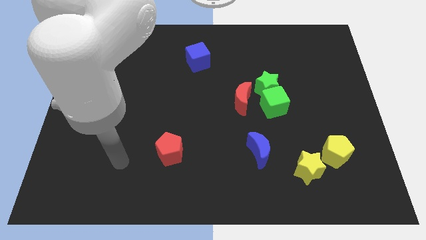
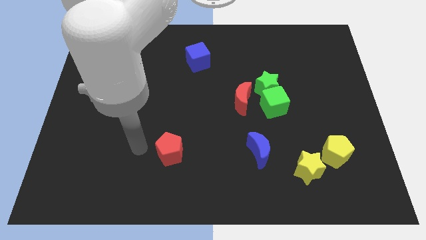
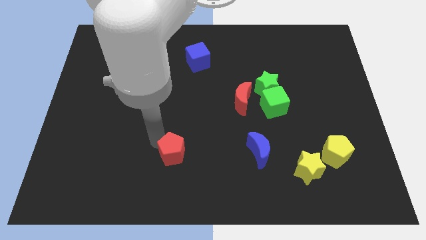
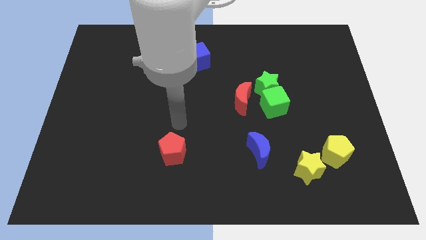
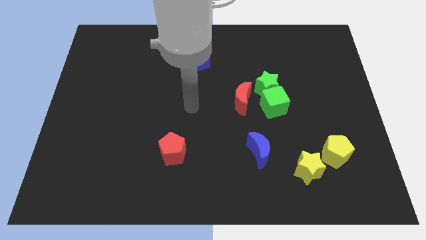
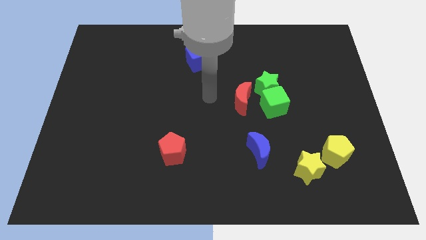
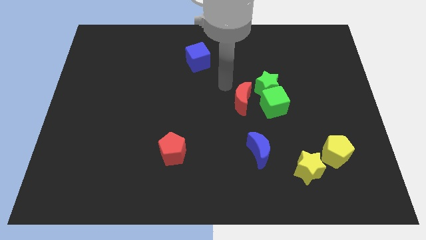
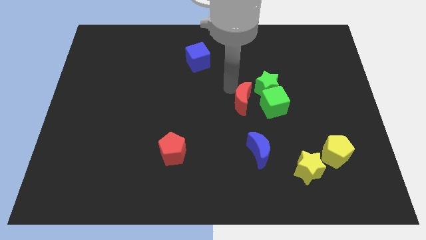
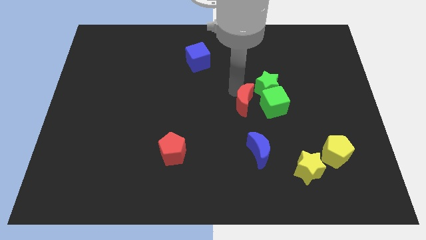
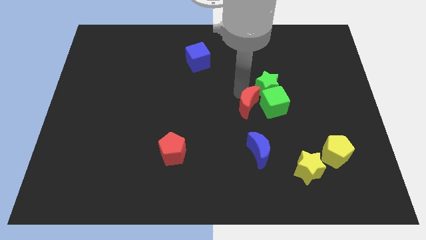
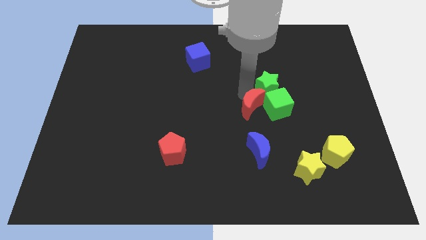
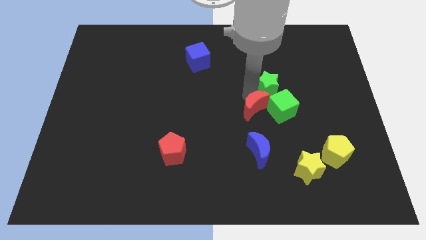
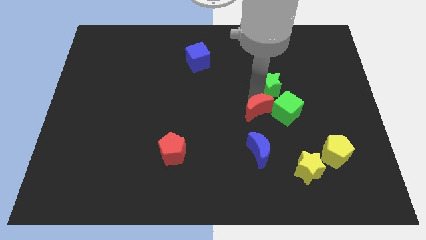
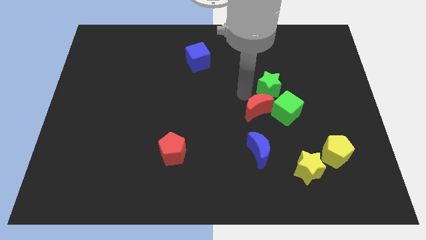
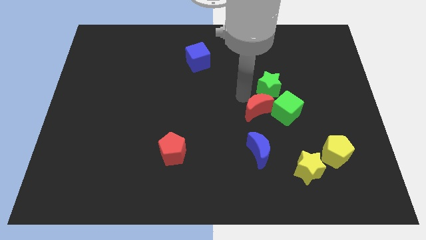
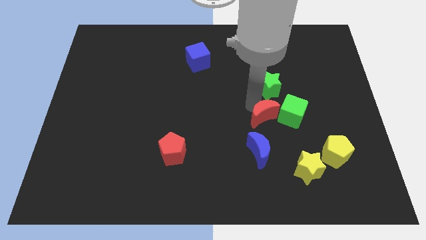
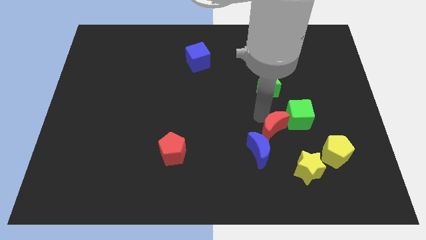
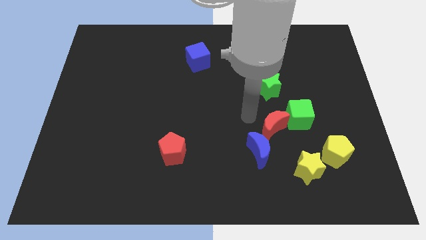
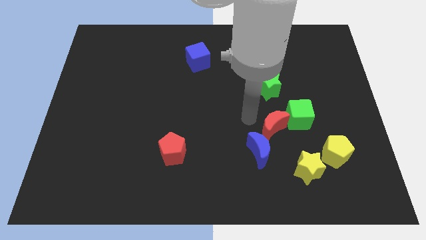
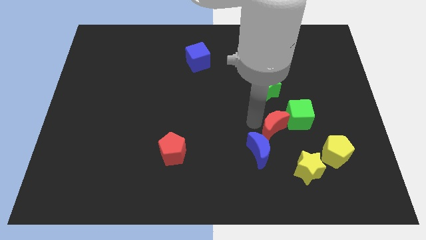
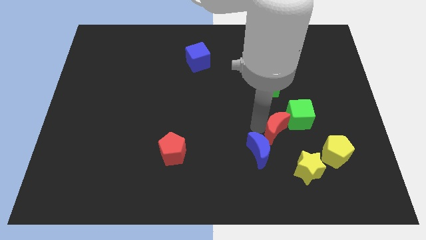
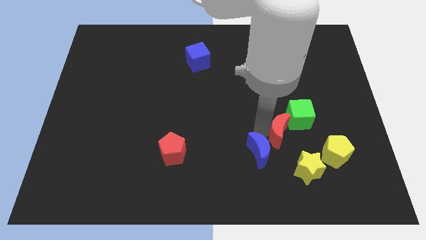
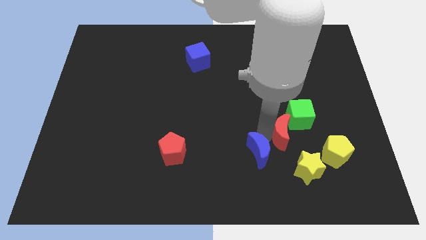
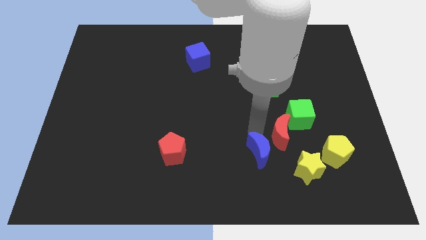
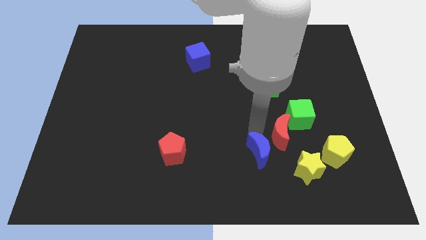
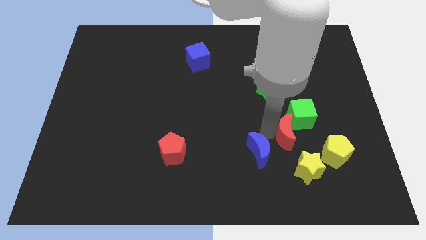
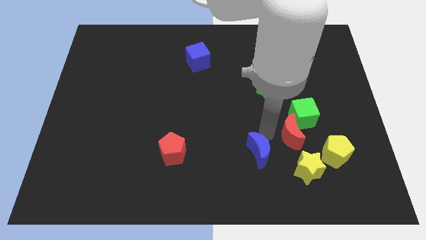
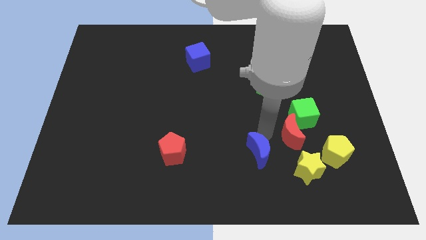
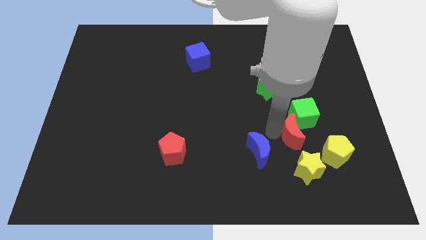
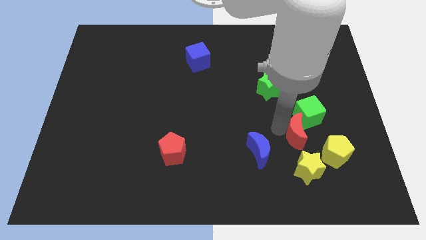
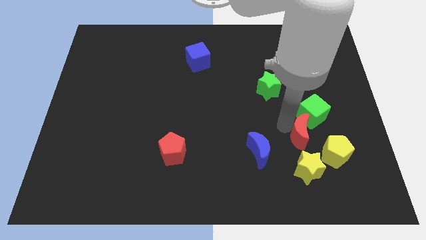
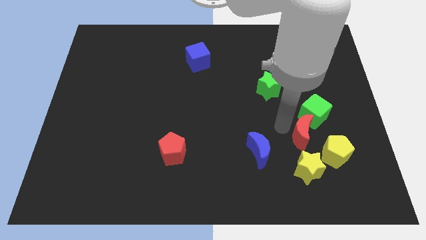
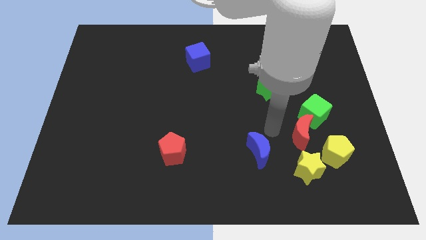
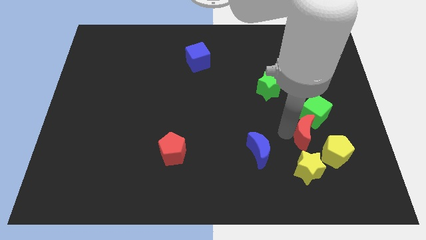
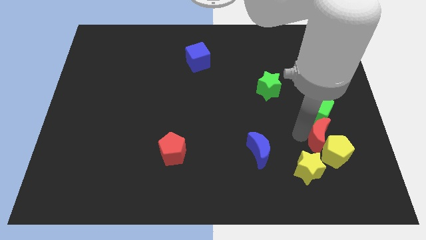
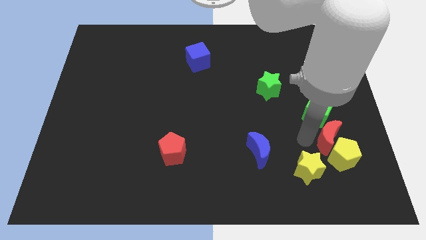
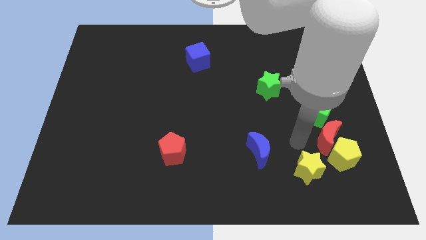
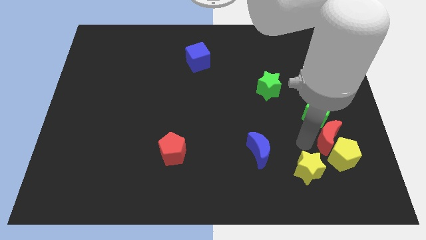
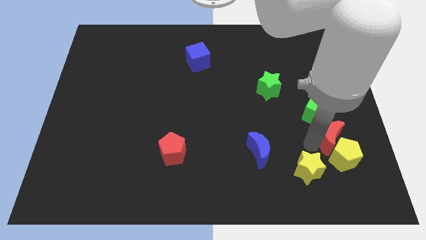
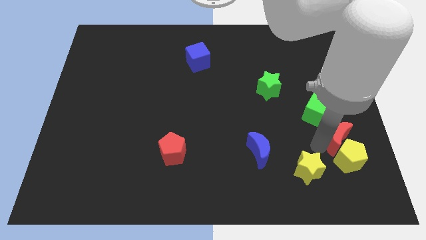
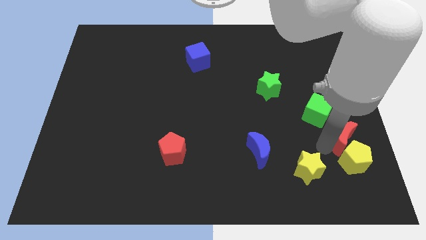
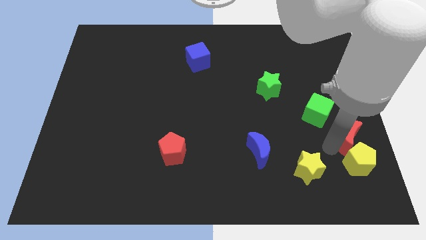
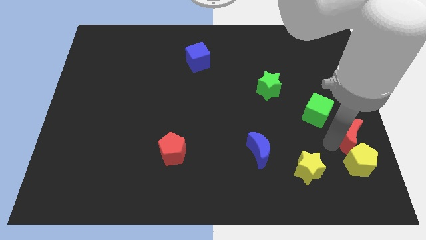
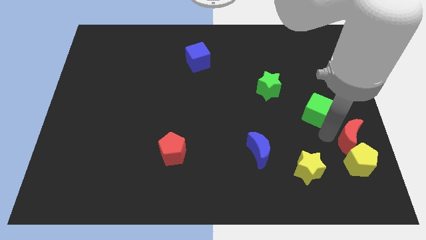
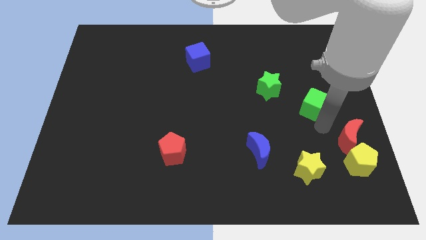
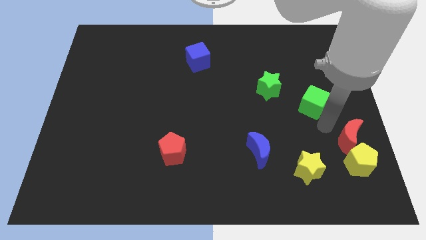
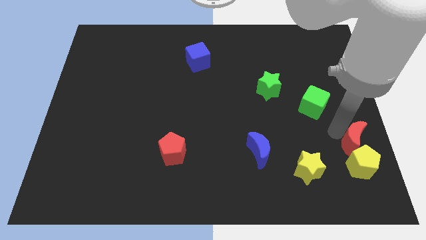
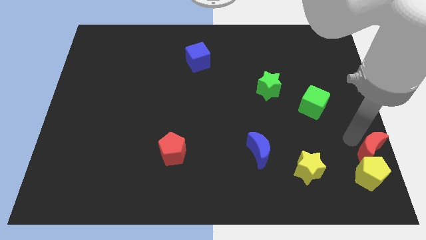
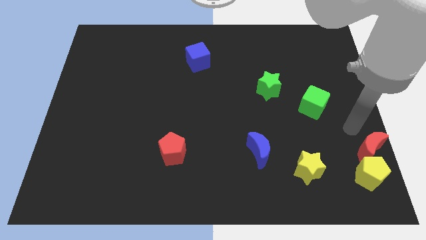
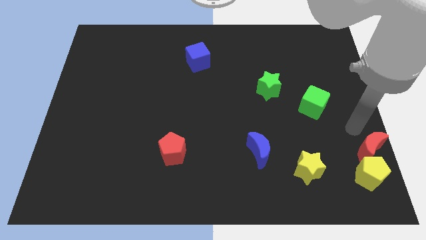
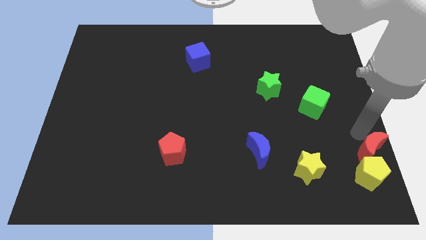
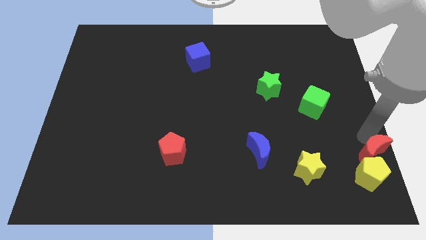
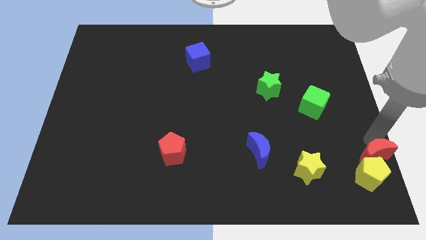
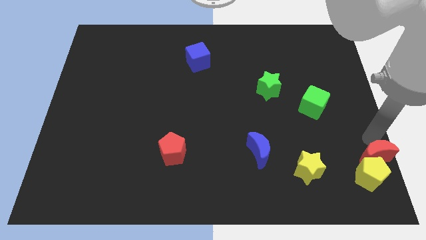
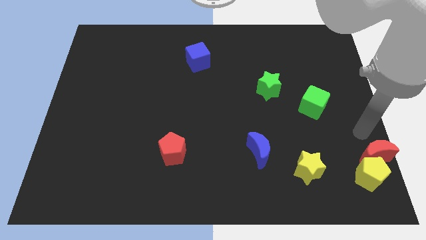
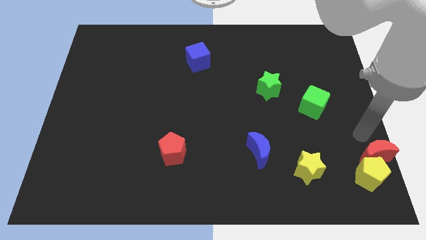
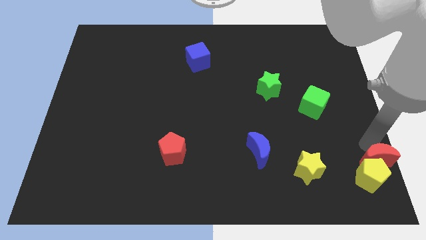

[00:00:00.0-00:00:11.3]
slide the red moon to the bottom right of the board
